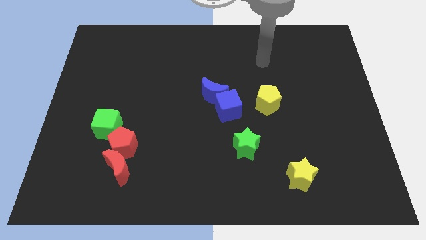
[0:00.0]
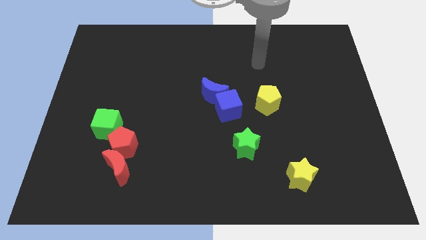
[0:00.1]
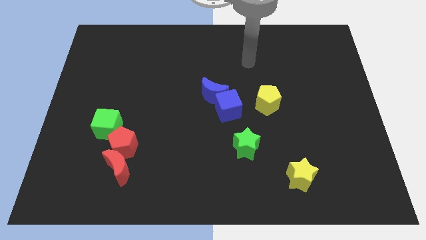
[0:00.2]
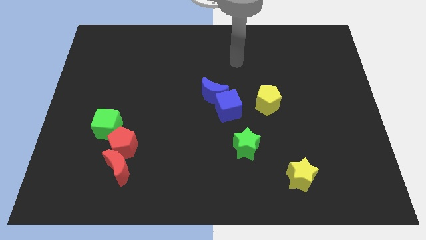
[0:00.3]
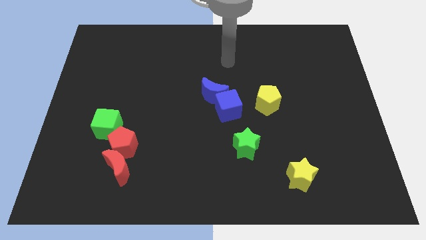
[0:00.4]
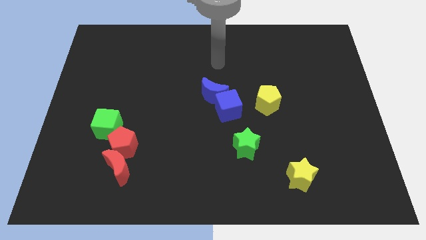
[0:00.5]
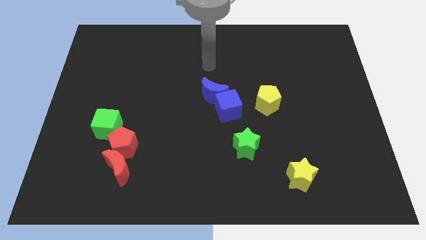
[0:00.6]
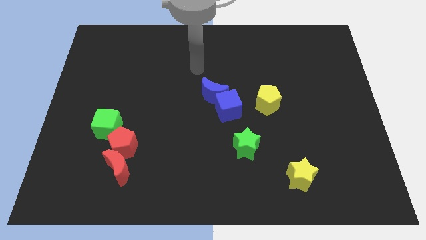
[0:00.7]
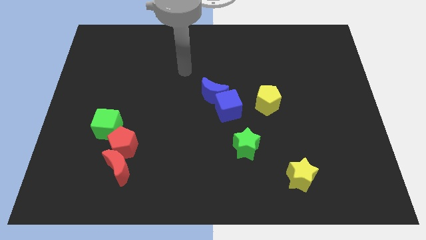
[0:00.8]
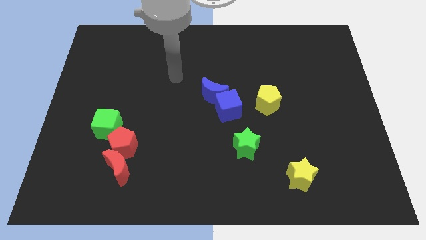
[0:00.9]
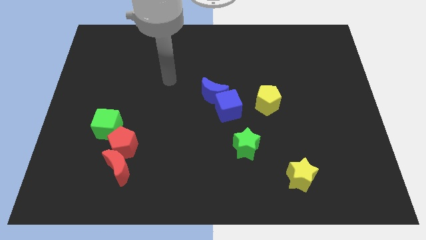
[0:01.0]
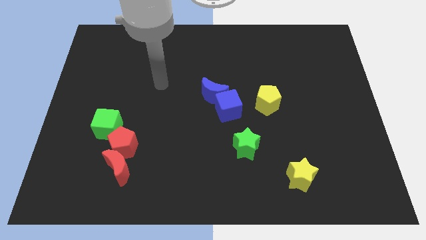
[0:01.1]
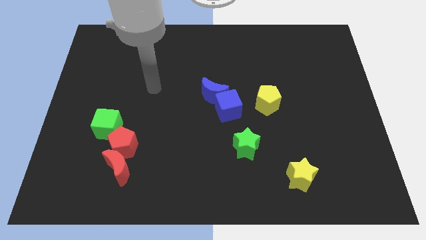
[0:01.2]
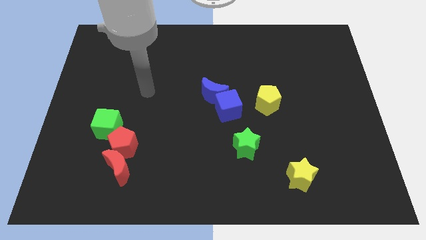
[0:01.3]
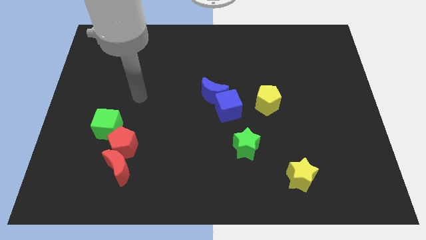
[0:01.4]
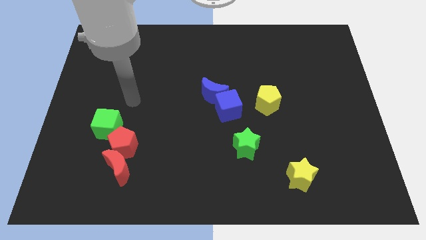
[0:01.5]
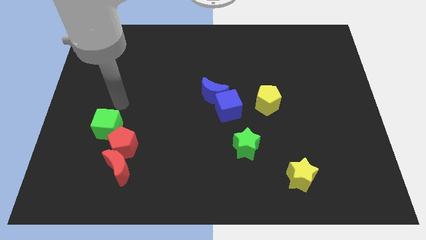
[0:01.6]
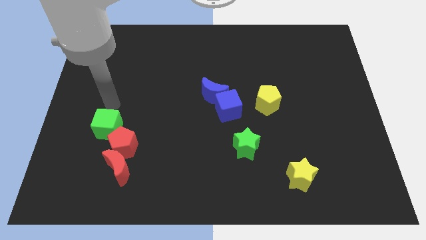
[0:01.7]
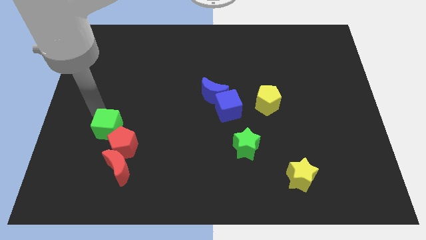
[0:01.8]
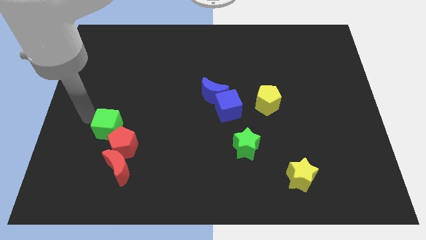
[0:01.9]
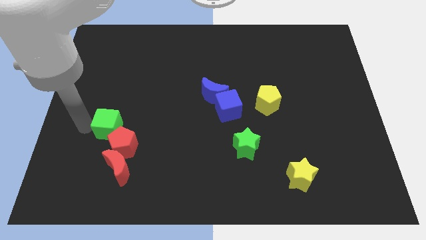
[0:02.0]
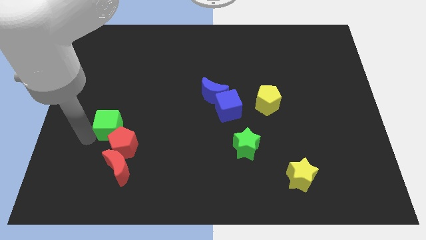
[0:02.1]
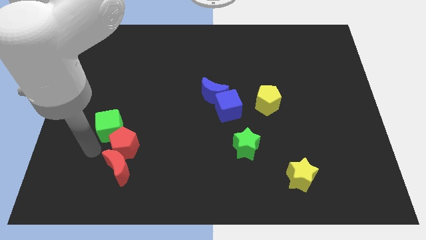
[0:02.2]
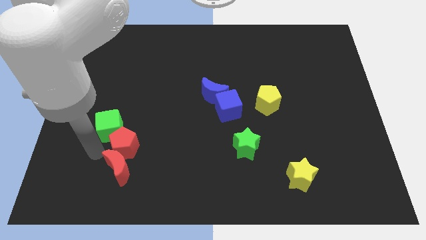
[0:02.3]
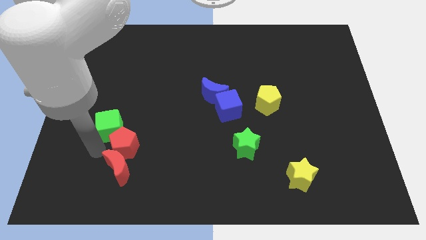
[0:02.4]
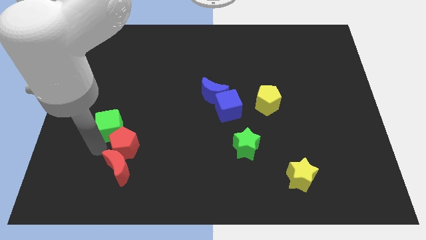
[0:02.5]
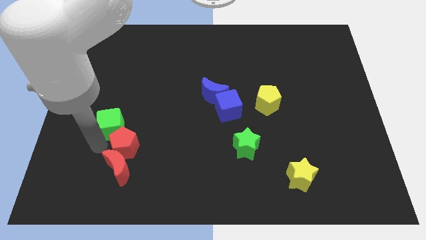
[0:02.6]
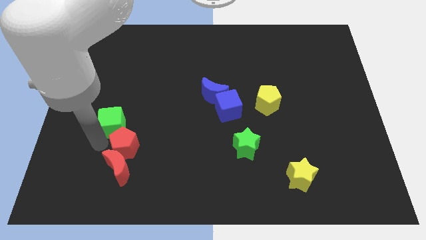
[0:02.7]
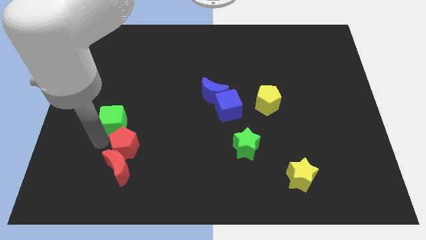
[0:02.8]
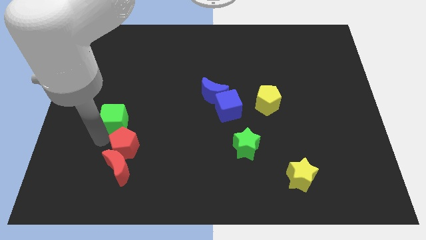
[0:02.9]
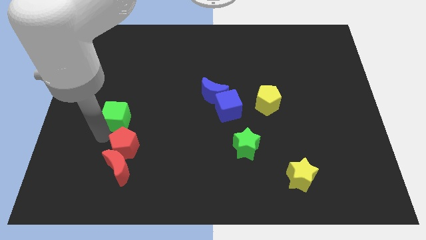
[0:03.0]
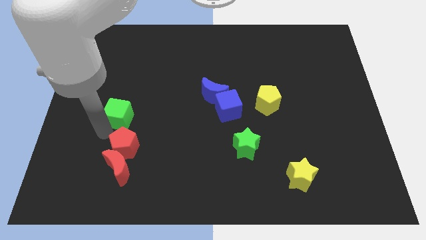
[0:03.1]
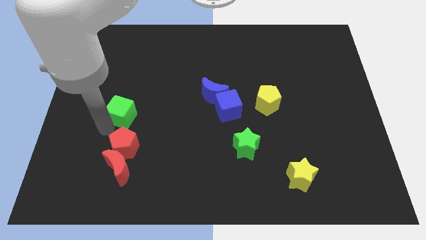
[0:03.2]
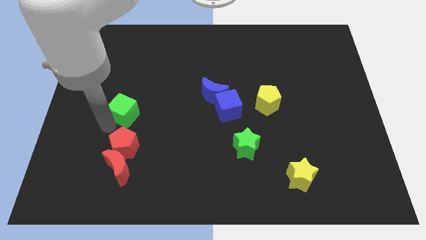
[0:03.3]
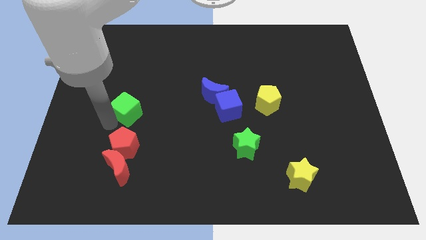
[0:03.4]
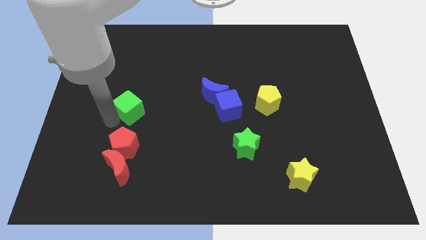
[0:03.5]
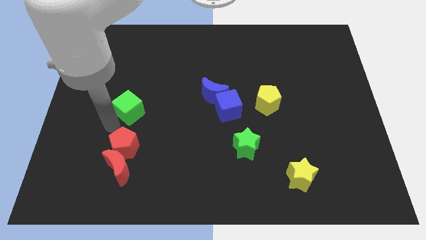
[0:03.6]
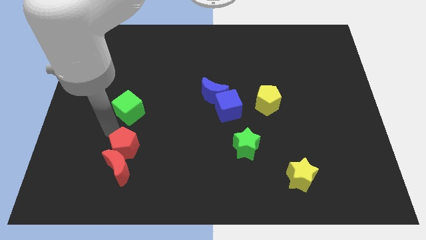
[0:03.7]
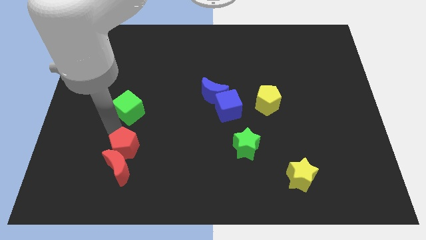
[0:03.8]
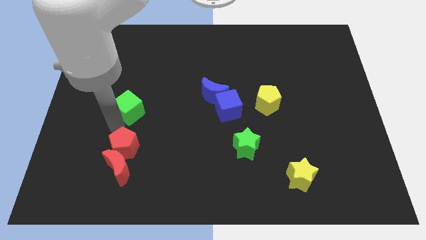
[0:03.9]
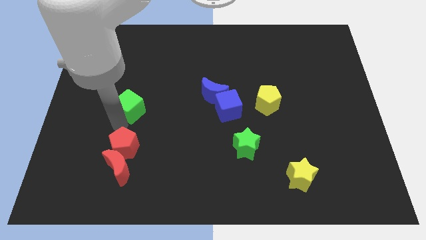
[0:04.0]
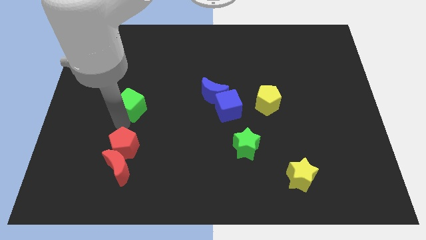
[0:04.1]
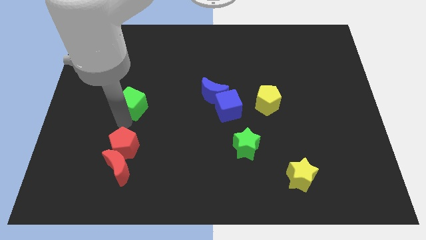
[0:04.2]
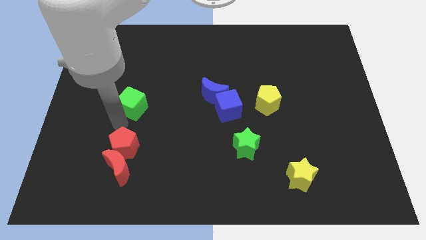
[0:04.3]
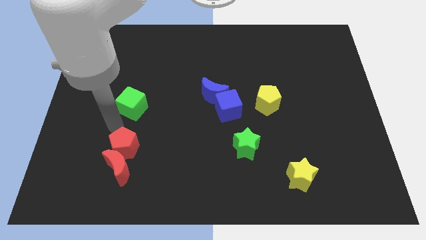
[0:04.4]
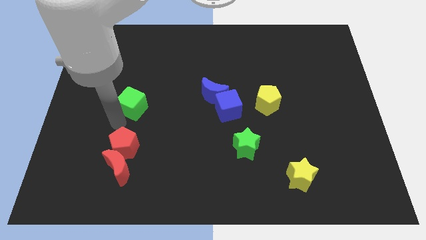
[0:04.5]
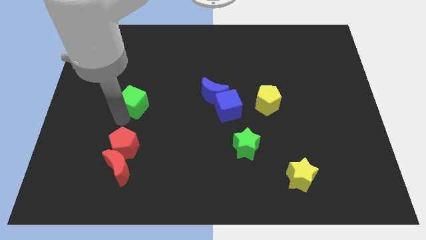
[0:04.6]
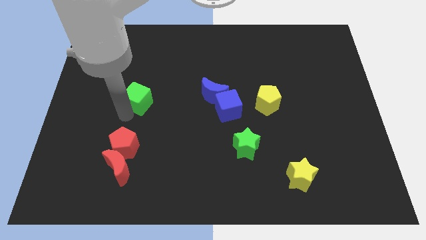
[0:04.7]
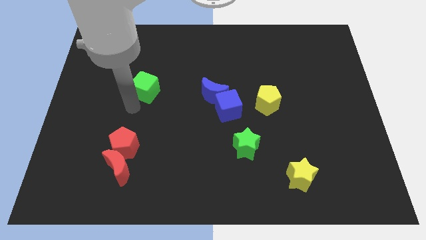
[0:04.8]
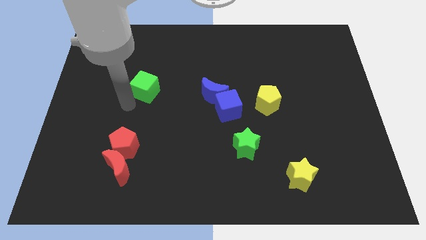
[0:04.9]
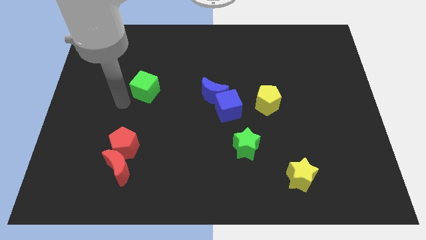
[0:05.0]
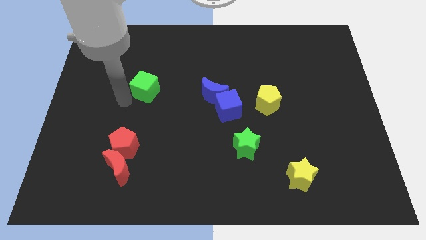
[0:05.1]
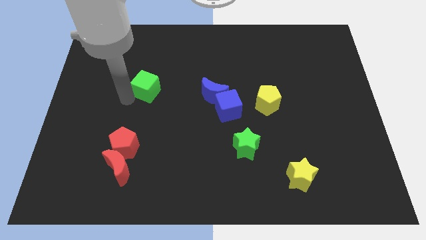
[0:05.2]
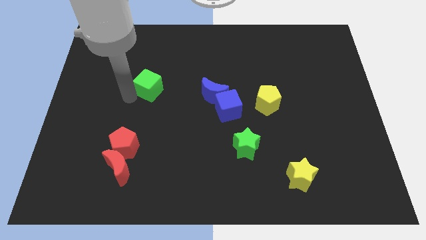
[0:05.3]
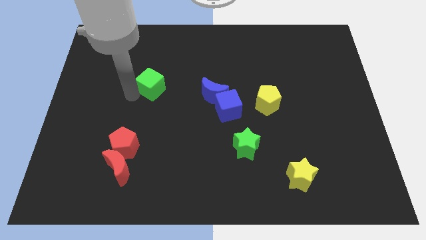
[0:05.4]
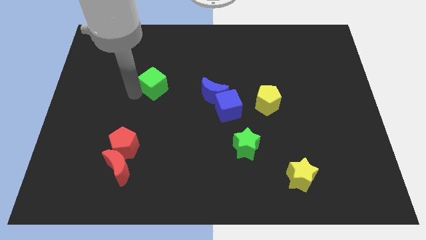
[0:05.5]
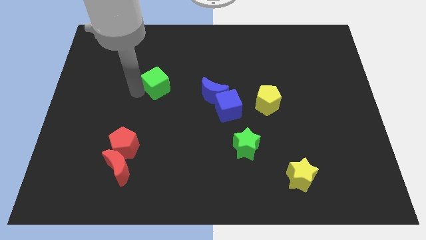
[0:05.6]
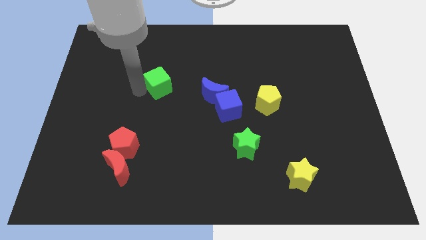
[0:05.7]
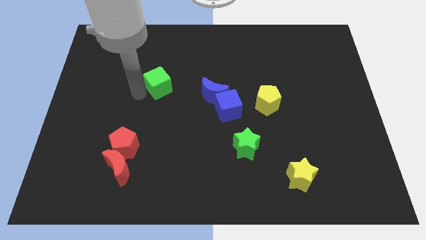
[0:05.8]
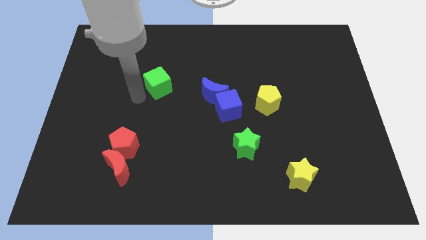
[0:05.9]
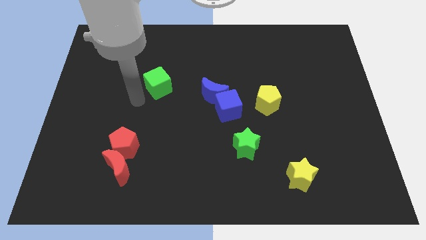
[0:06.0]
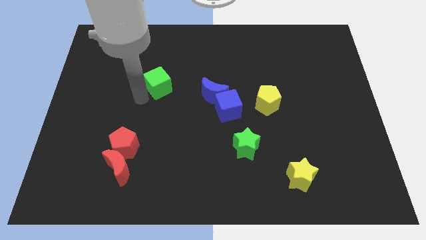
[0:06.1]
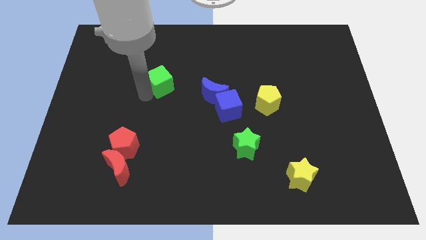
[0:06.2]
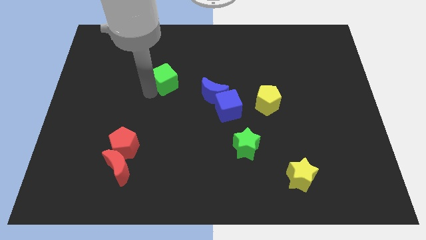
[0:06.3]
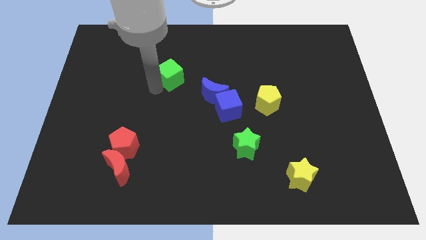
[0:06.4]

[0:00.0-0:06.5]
push the green cube upwards and then to the right

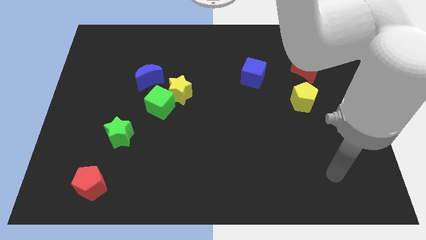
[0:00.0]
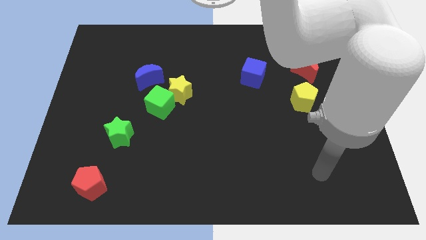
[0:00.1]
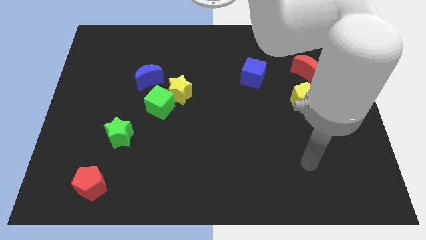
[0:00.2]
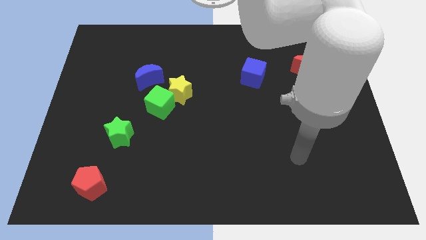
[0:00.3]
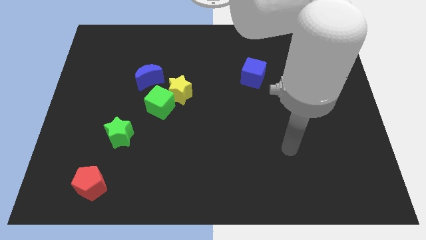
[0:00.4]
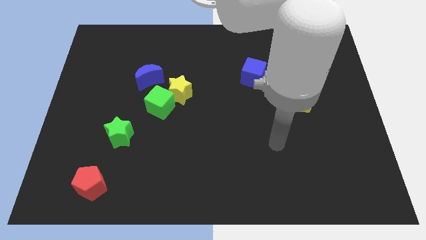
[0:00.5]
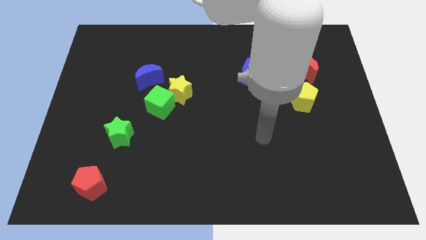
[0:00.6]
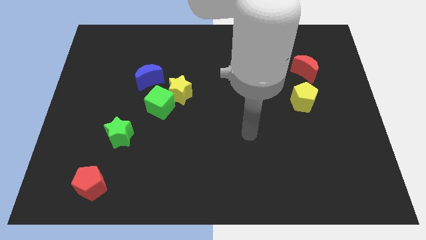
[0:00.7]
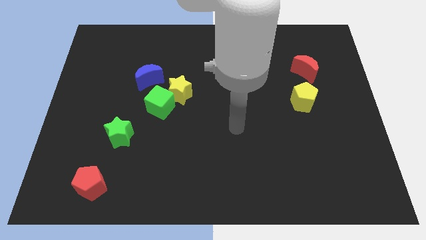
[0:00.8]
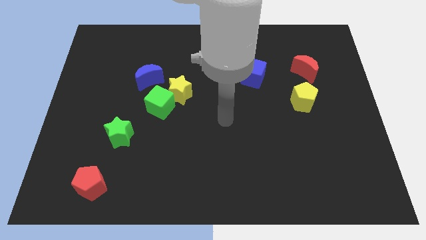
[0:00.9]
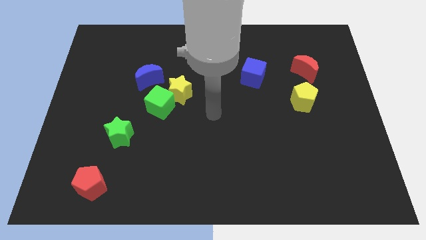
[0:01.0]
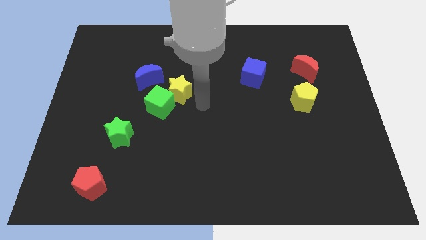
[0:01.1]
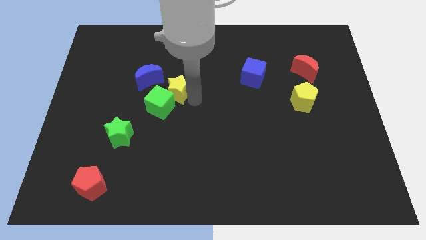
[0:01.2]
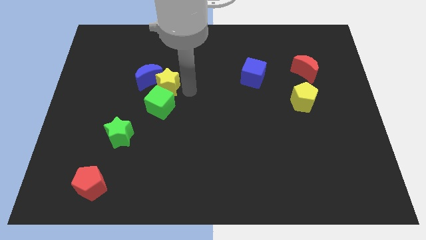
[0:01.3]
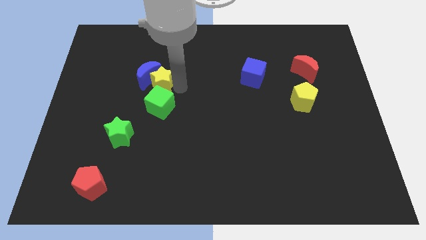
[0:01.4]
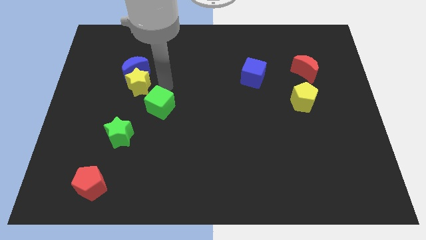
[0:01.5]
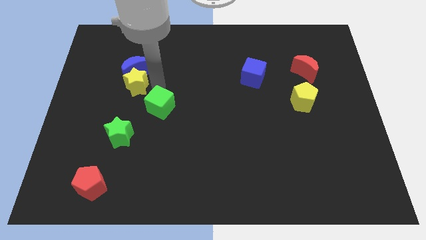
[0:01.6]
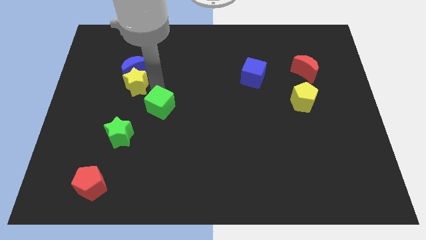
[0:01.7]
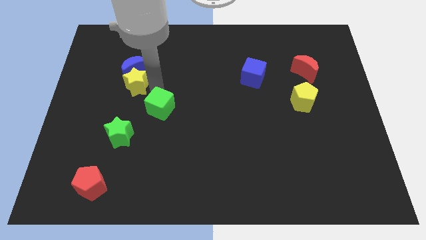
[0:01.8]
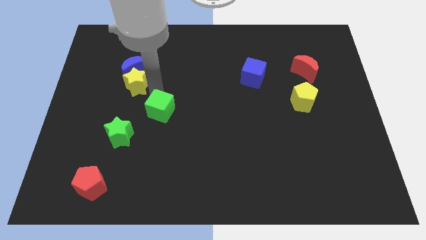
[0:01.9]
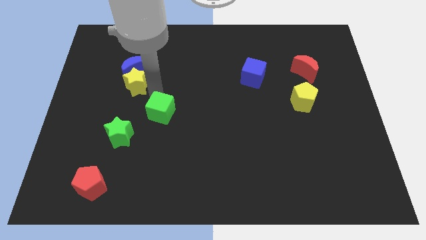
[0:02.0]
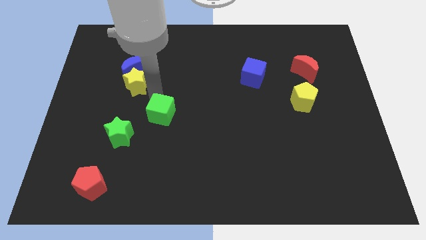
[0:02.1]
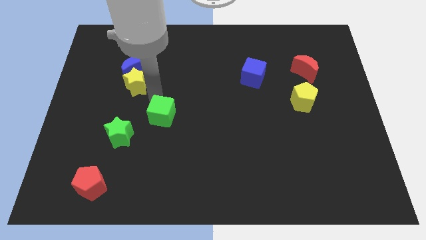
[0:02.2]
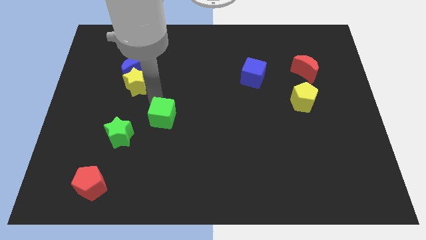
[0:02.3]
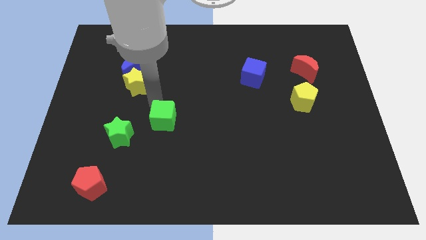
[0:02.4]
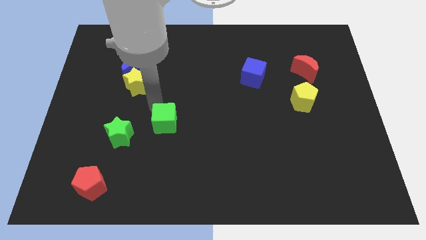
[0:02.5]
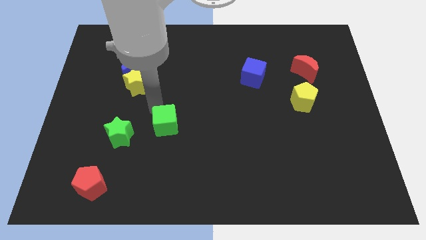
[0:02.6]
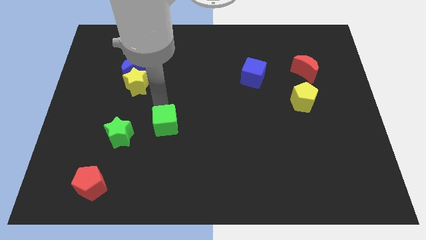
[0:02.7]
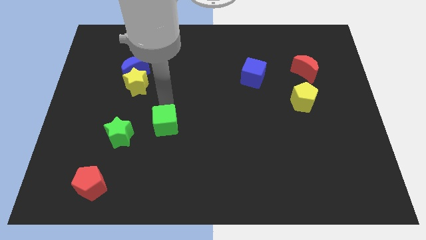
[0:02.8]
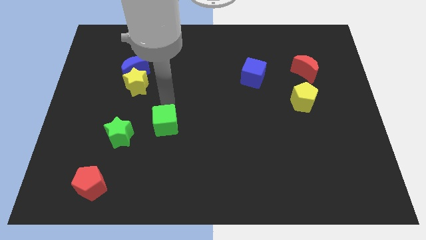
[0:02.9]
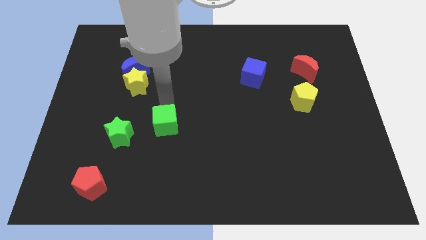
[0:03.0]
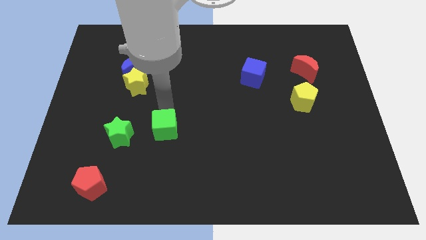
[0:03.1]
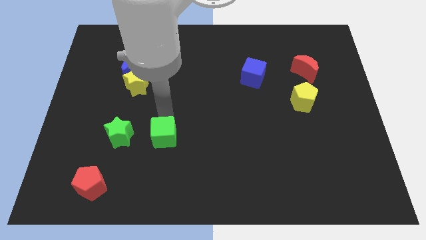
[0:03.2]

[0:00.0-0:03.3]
slightly move the green cube down
